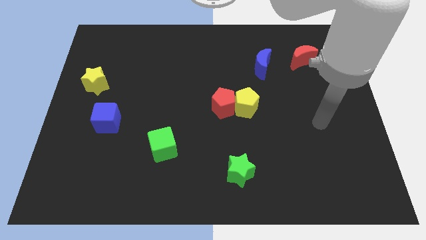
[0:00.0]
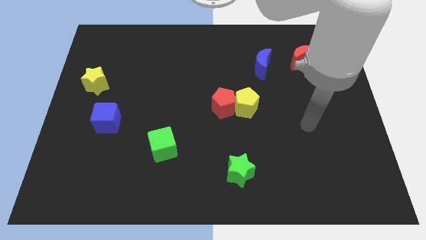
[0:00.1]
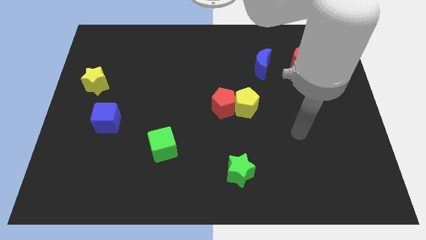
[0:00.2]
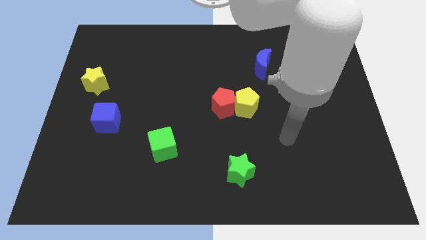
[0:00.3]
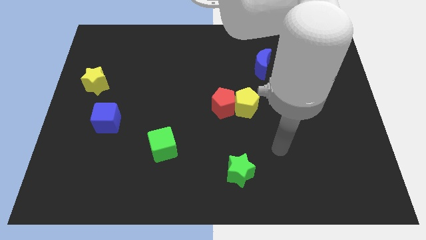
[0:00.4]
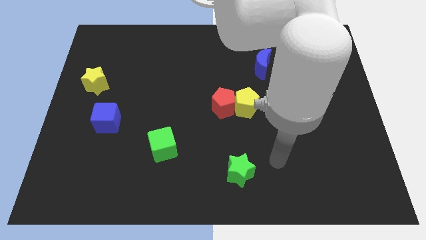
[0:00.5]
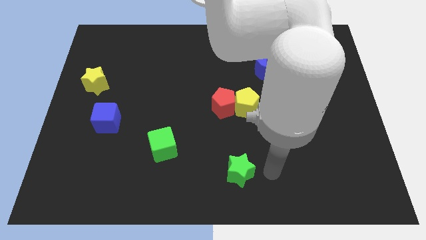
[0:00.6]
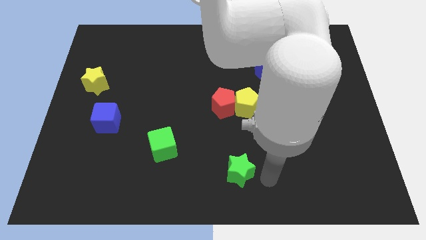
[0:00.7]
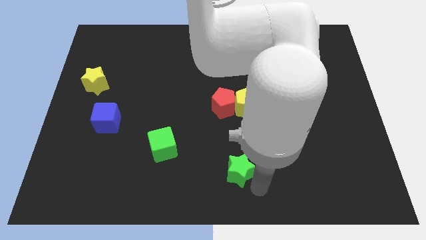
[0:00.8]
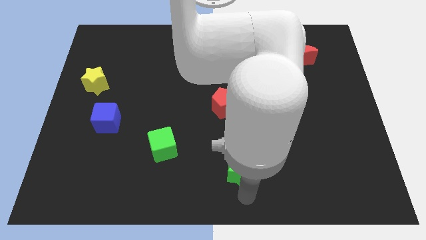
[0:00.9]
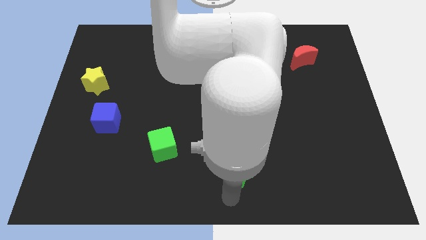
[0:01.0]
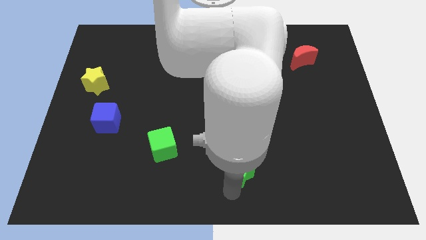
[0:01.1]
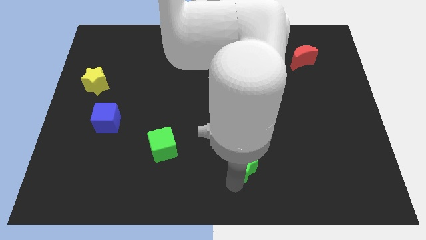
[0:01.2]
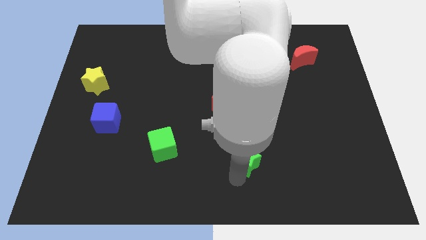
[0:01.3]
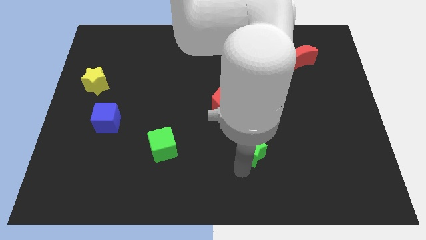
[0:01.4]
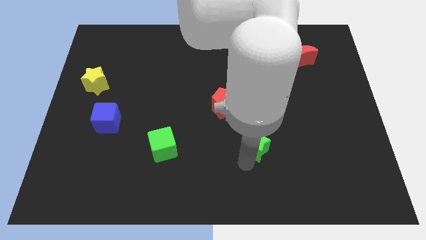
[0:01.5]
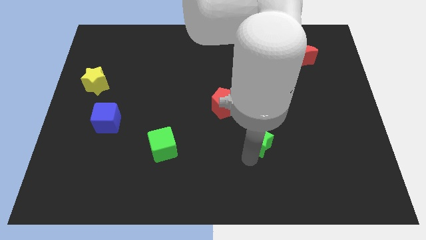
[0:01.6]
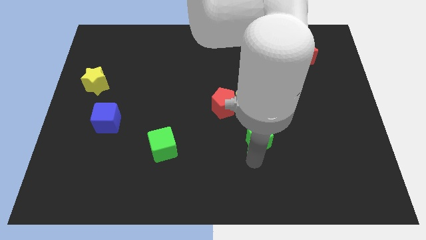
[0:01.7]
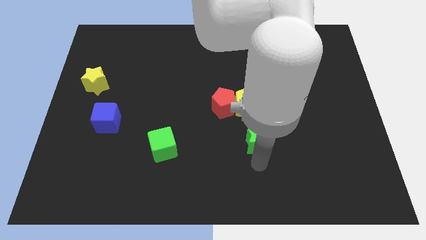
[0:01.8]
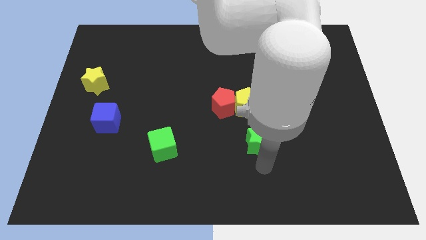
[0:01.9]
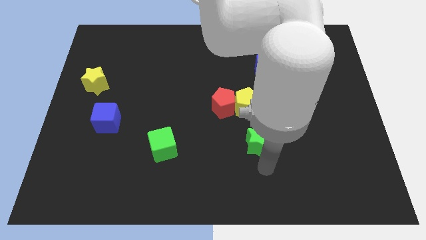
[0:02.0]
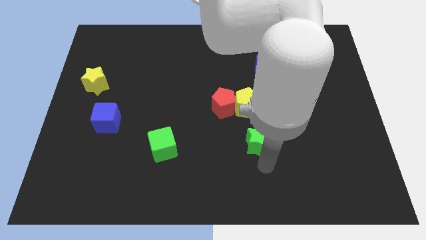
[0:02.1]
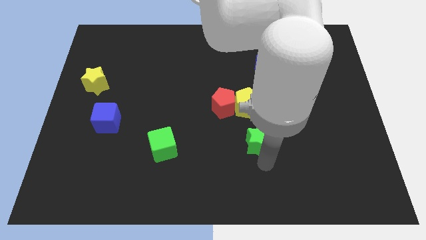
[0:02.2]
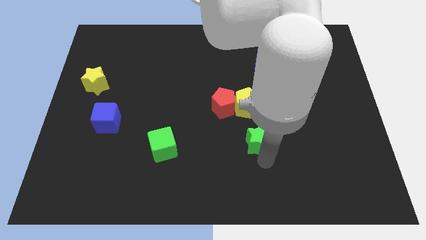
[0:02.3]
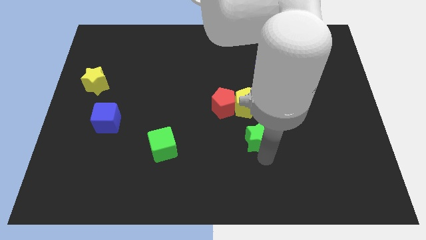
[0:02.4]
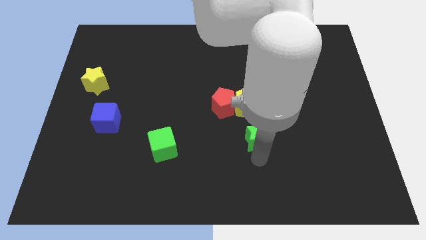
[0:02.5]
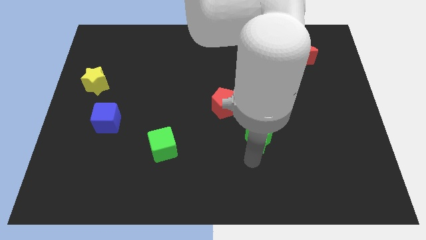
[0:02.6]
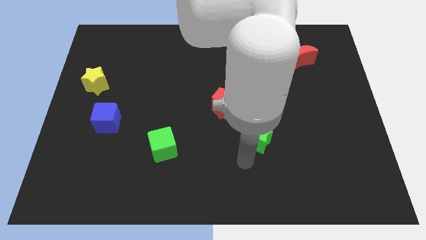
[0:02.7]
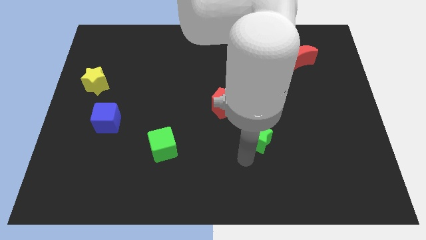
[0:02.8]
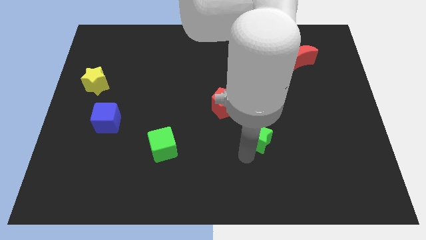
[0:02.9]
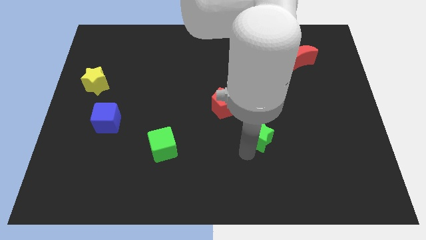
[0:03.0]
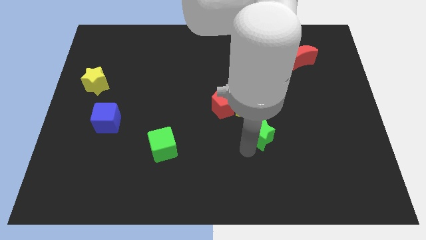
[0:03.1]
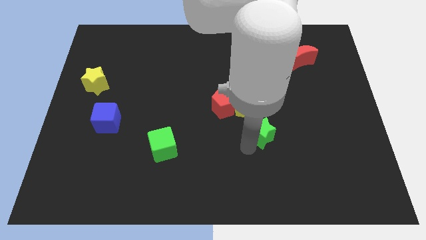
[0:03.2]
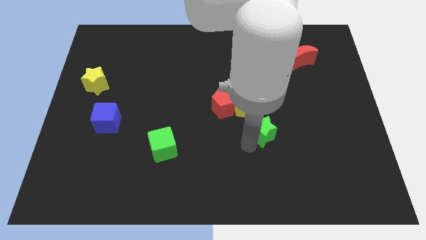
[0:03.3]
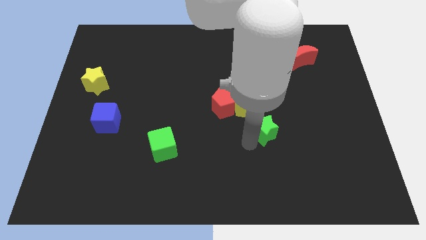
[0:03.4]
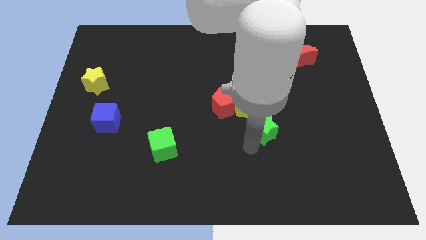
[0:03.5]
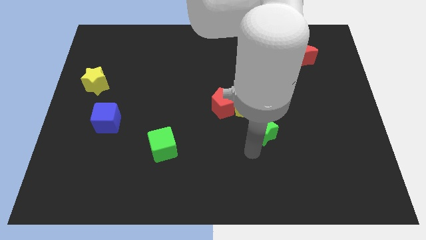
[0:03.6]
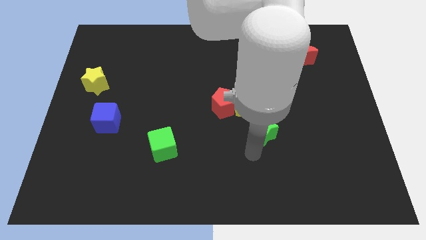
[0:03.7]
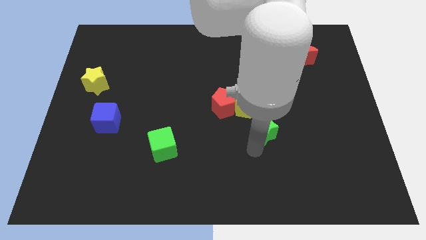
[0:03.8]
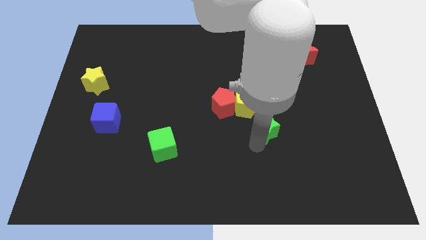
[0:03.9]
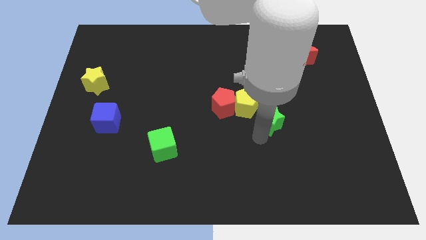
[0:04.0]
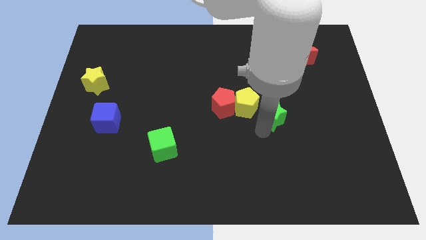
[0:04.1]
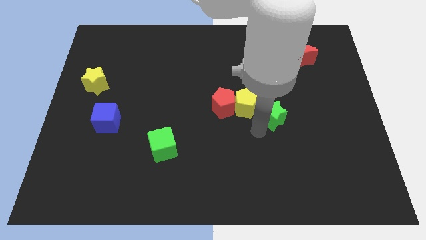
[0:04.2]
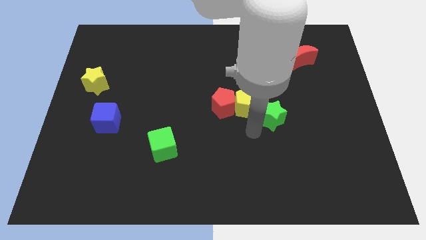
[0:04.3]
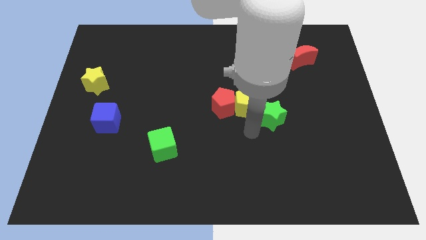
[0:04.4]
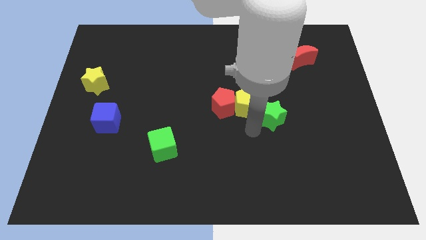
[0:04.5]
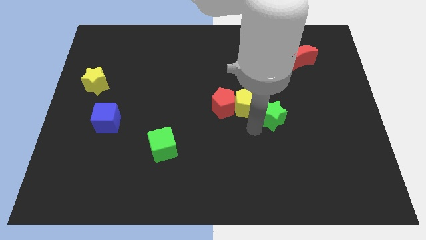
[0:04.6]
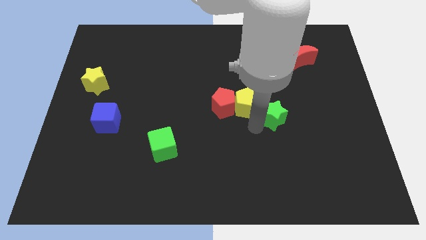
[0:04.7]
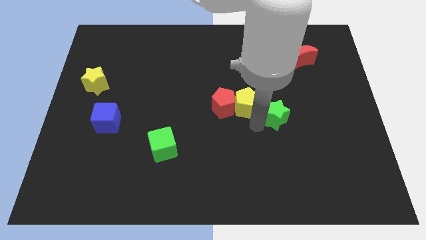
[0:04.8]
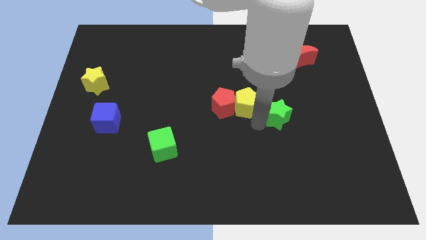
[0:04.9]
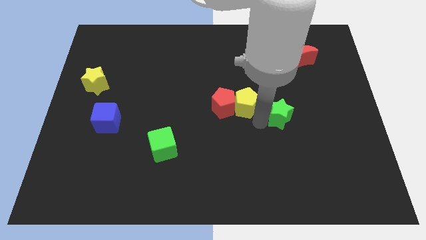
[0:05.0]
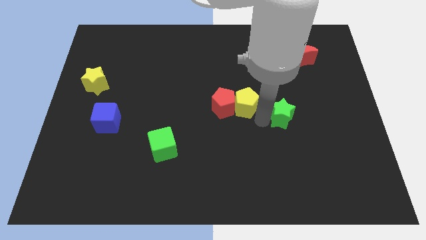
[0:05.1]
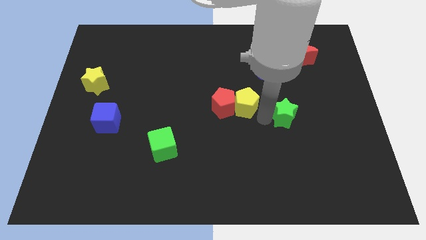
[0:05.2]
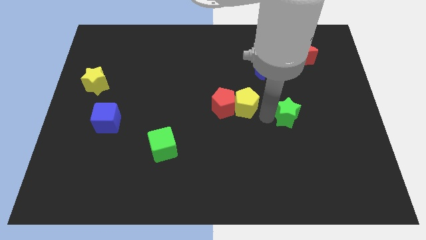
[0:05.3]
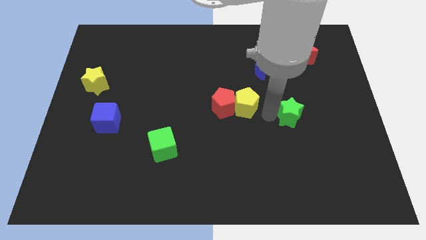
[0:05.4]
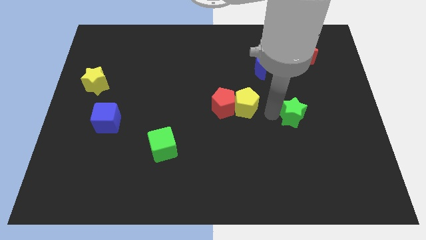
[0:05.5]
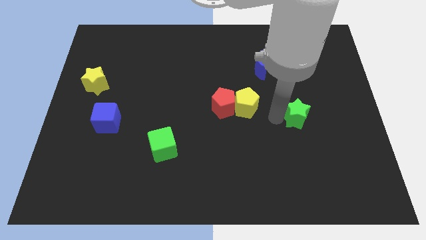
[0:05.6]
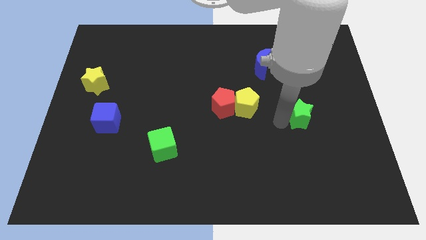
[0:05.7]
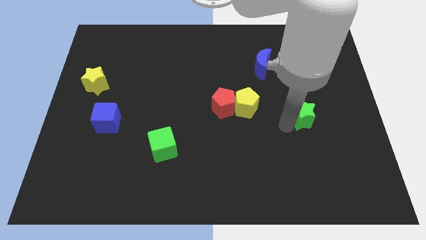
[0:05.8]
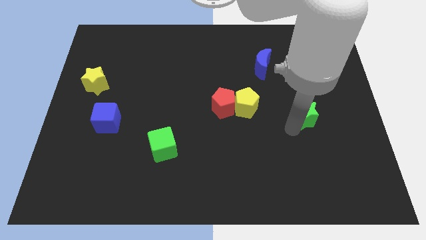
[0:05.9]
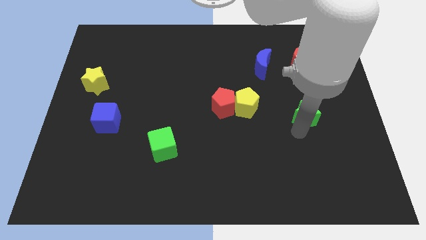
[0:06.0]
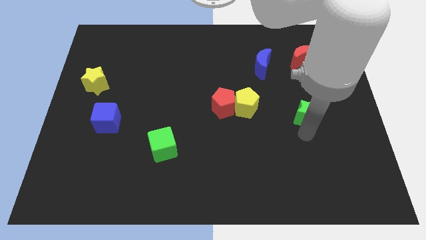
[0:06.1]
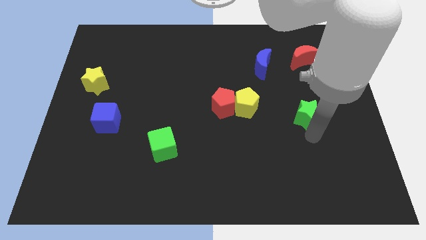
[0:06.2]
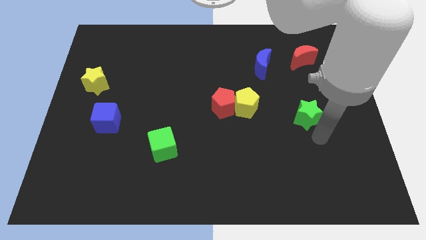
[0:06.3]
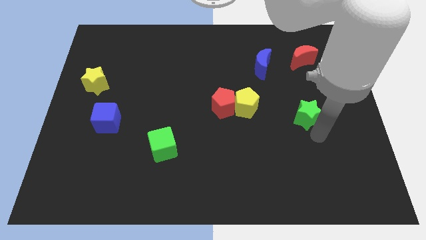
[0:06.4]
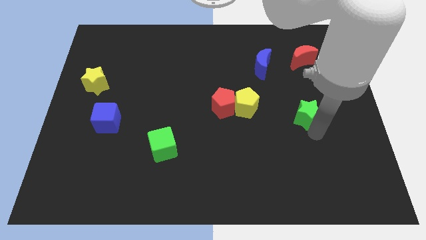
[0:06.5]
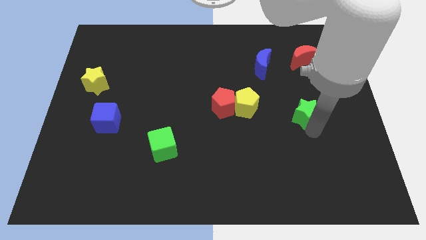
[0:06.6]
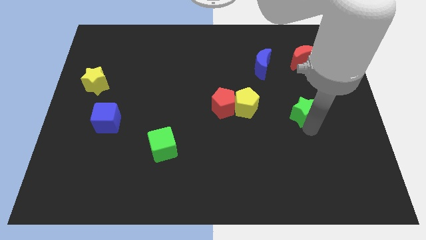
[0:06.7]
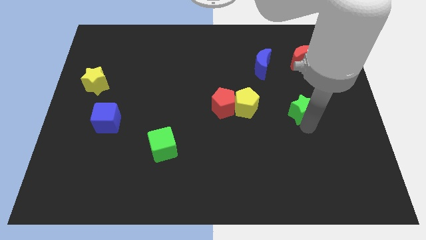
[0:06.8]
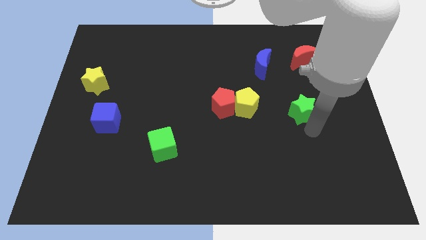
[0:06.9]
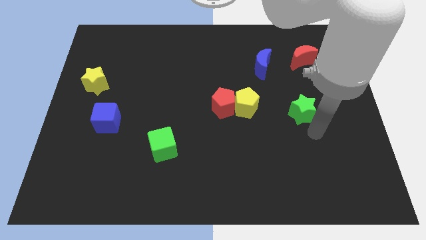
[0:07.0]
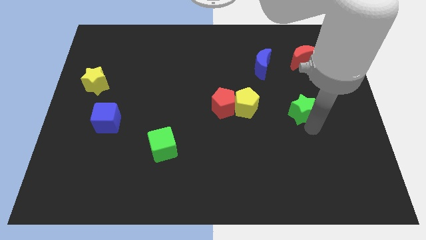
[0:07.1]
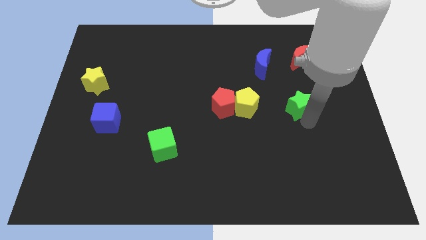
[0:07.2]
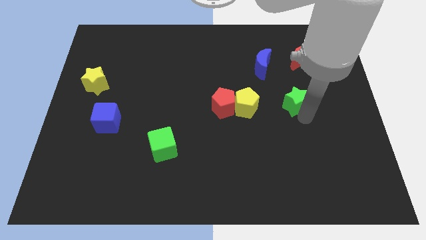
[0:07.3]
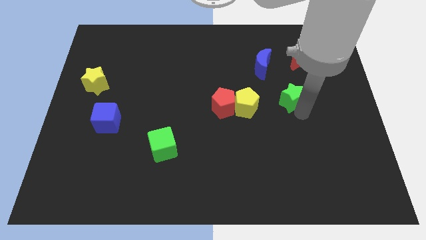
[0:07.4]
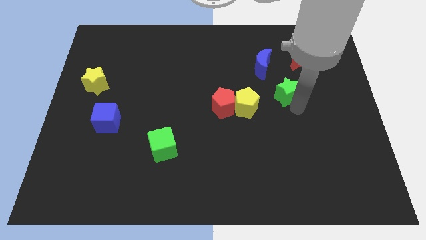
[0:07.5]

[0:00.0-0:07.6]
move the green star diagonally down and to the right of the blue moon
